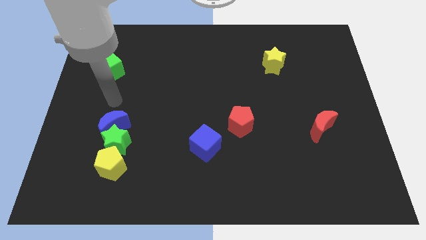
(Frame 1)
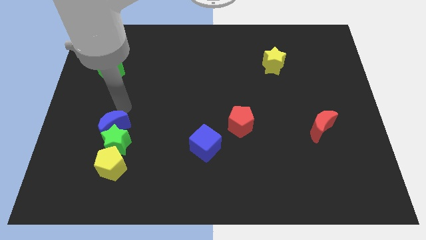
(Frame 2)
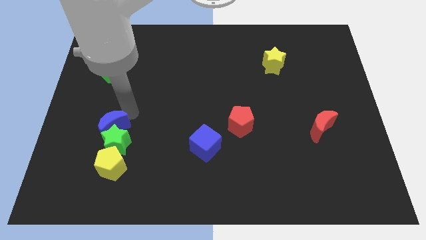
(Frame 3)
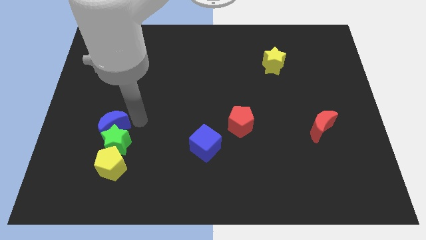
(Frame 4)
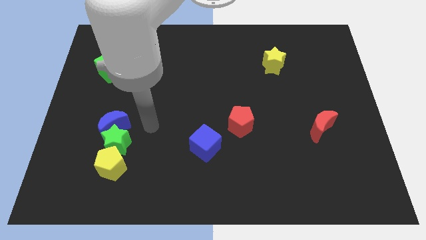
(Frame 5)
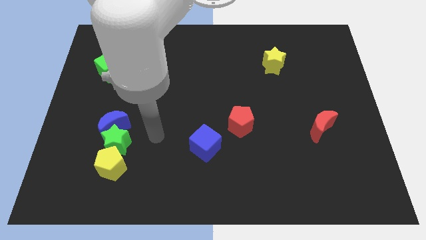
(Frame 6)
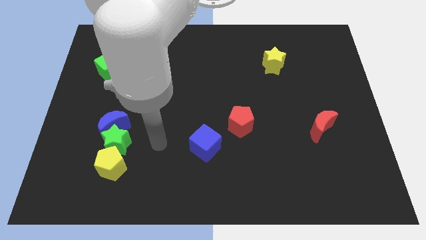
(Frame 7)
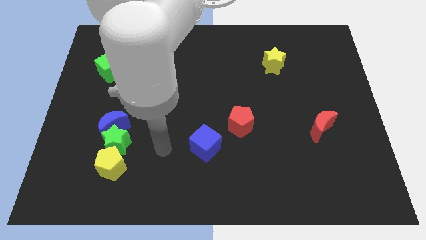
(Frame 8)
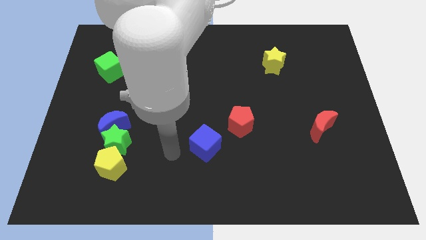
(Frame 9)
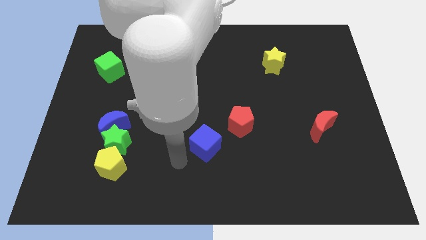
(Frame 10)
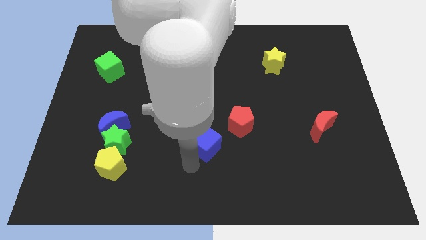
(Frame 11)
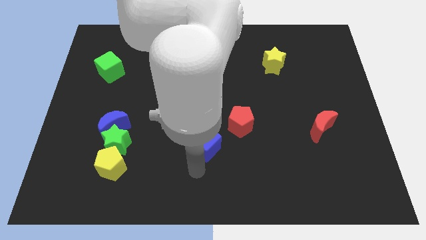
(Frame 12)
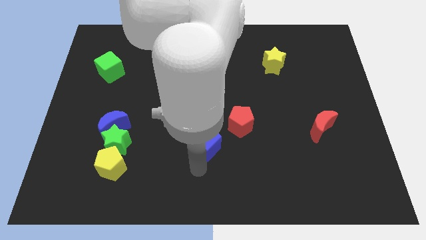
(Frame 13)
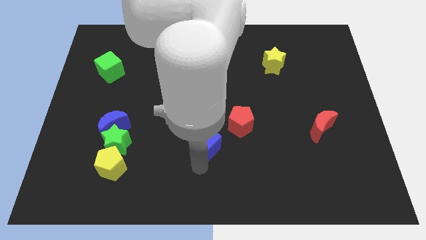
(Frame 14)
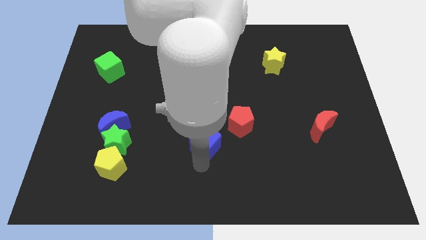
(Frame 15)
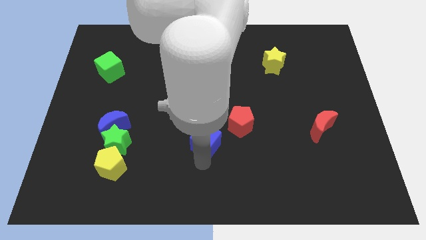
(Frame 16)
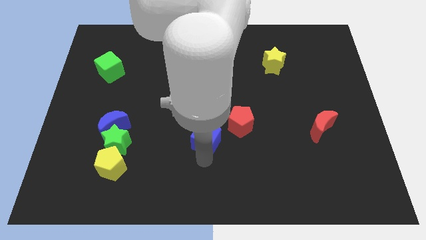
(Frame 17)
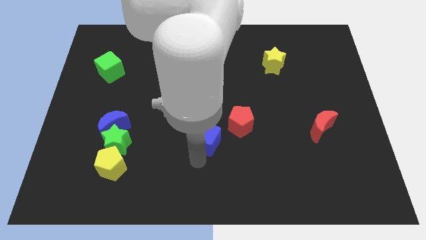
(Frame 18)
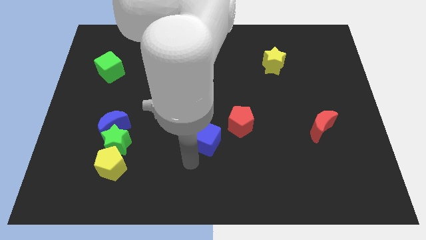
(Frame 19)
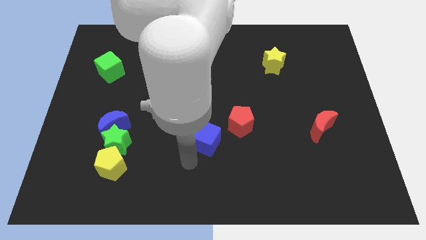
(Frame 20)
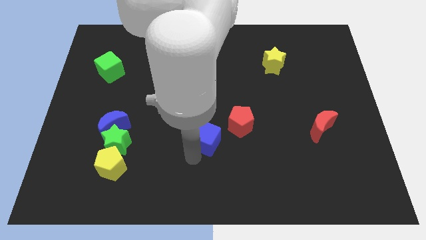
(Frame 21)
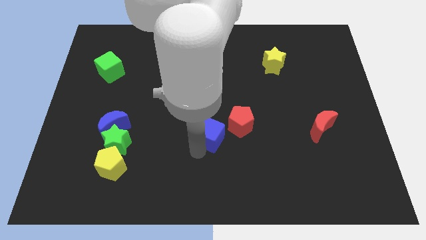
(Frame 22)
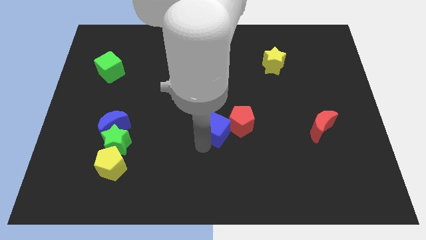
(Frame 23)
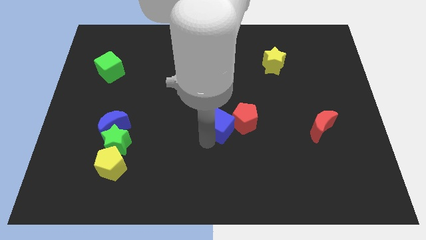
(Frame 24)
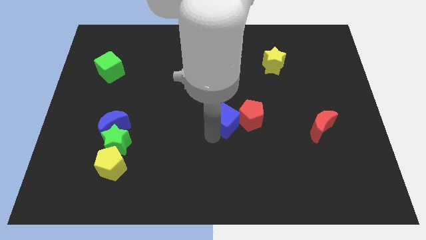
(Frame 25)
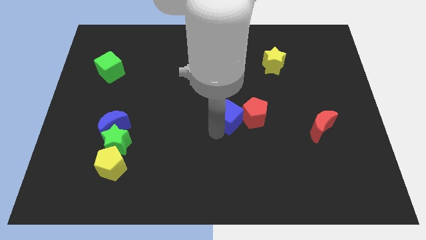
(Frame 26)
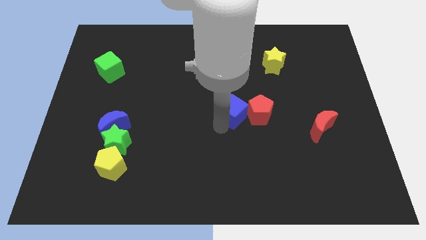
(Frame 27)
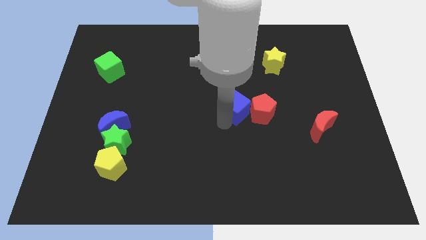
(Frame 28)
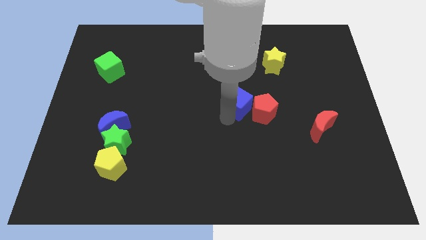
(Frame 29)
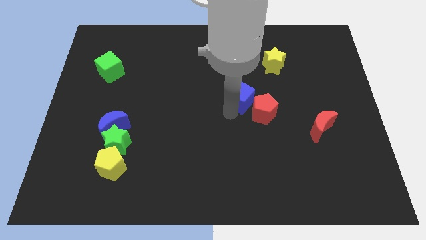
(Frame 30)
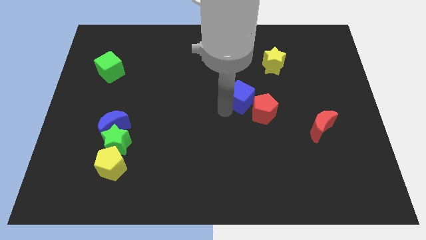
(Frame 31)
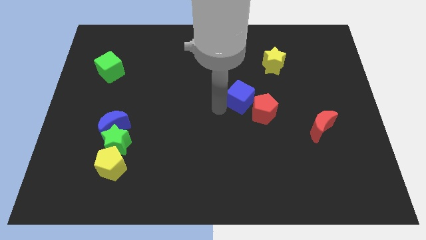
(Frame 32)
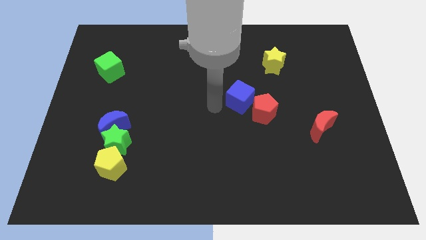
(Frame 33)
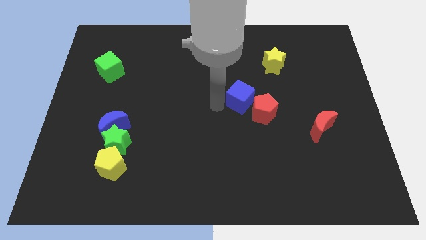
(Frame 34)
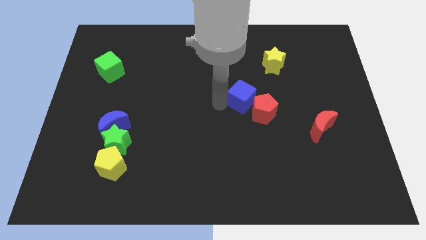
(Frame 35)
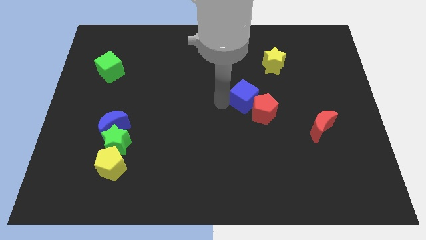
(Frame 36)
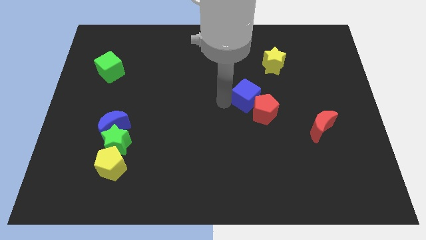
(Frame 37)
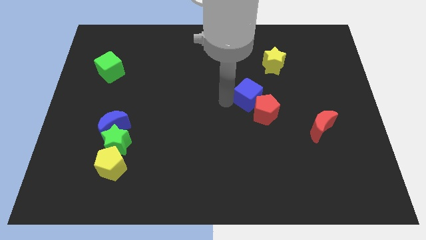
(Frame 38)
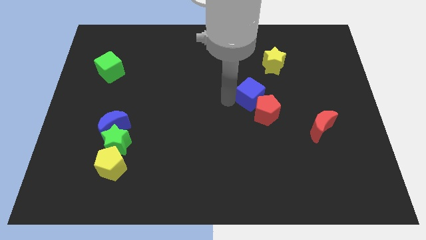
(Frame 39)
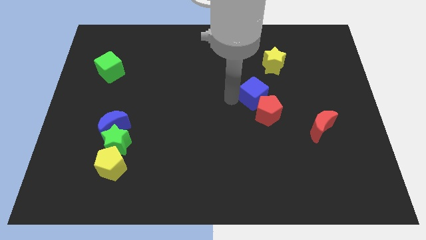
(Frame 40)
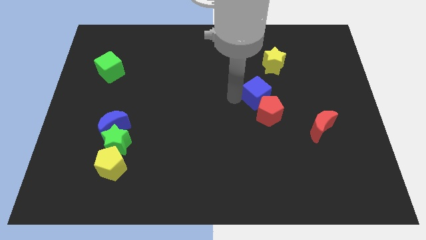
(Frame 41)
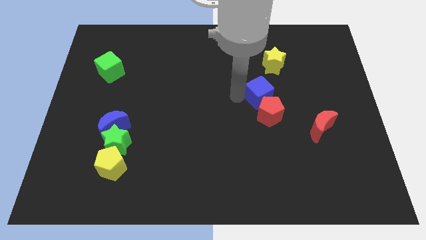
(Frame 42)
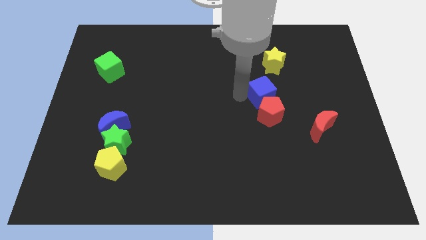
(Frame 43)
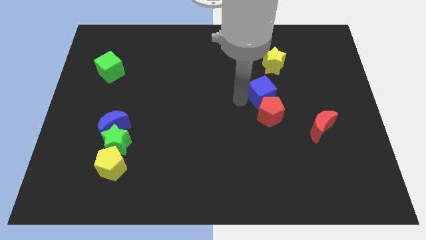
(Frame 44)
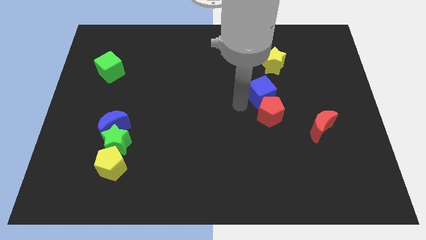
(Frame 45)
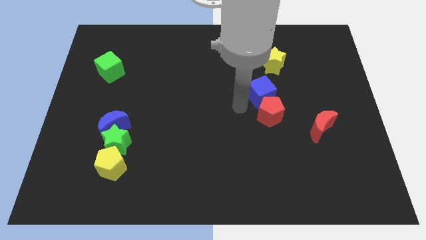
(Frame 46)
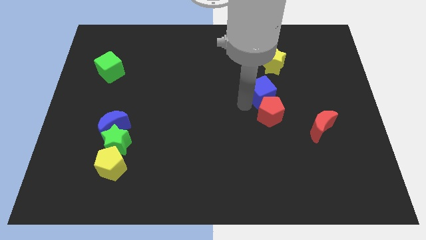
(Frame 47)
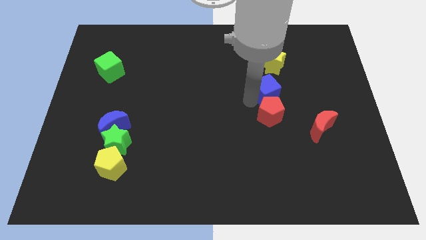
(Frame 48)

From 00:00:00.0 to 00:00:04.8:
move the blue cube upwards and then to the right

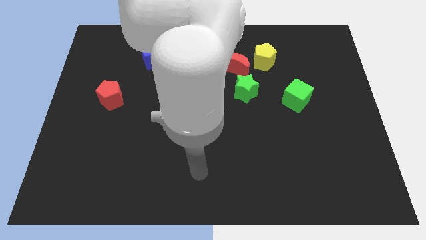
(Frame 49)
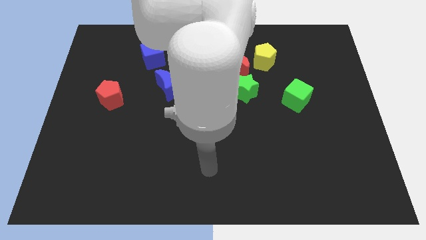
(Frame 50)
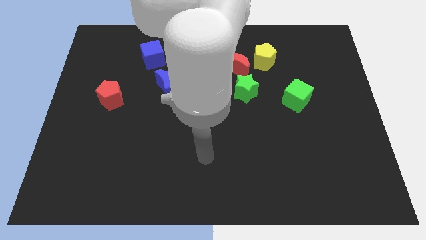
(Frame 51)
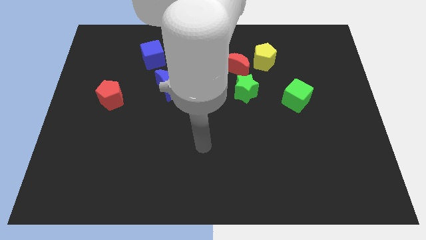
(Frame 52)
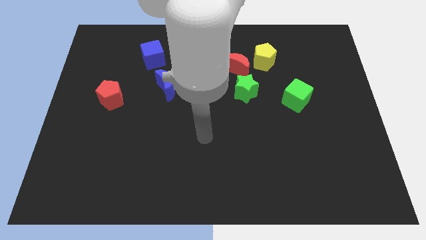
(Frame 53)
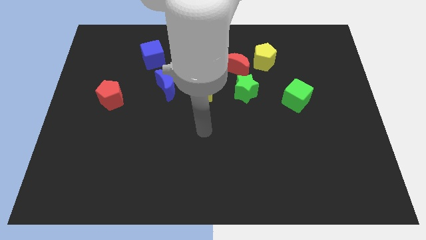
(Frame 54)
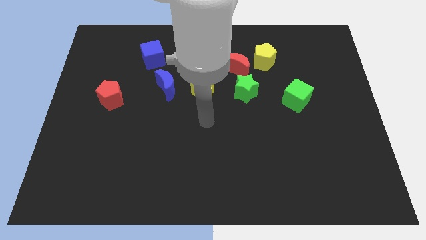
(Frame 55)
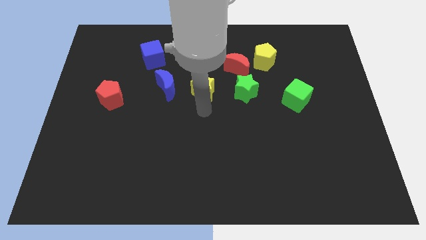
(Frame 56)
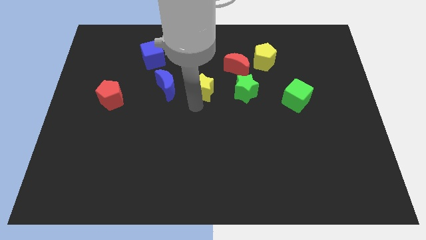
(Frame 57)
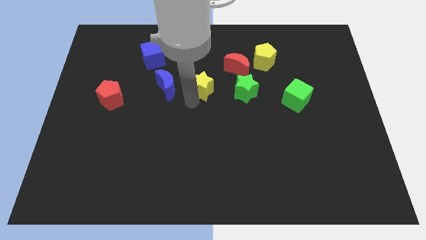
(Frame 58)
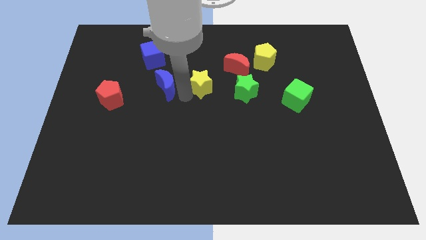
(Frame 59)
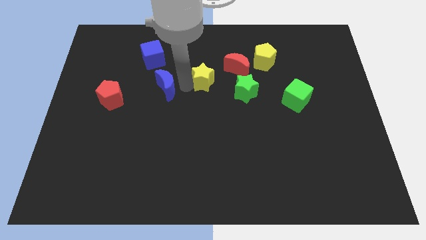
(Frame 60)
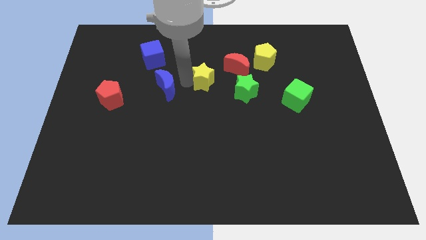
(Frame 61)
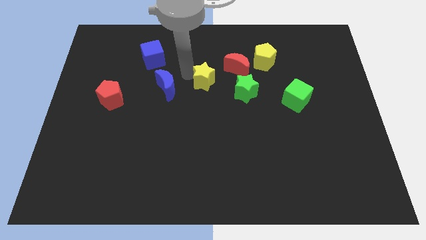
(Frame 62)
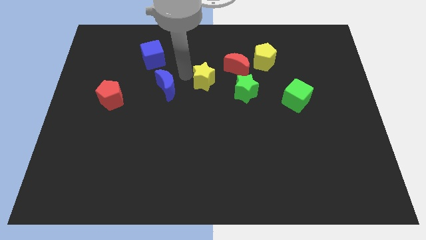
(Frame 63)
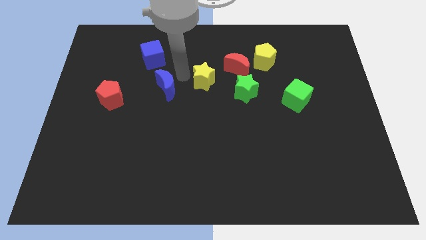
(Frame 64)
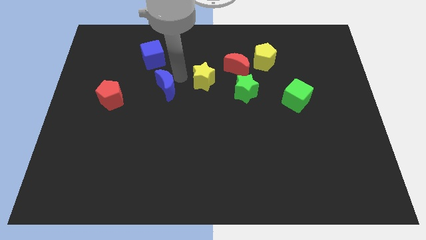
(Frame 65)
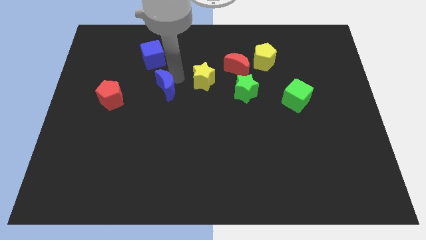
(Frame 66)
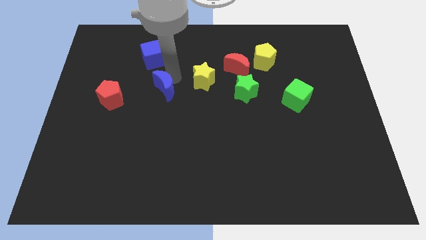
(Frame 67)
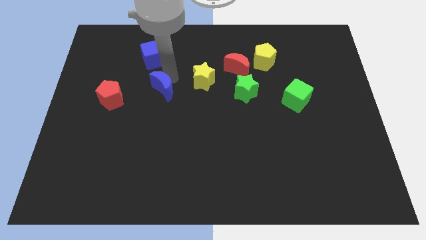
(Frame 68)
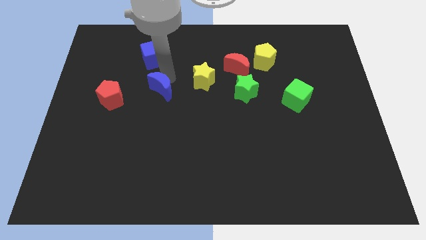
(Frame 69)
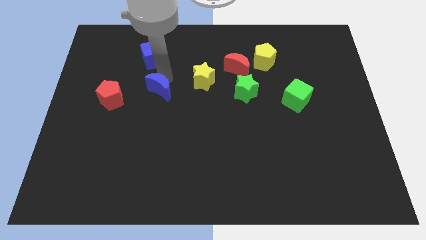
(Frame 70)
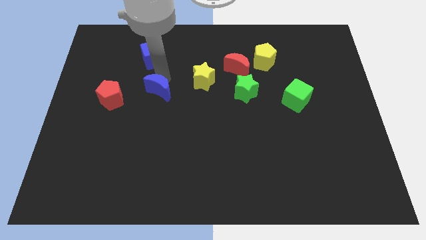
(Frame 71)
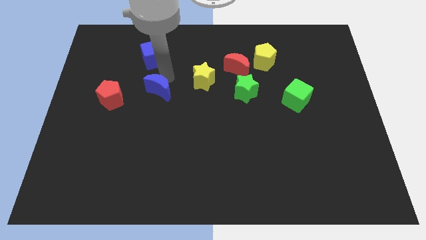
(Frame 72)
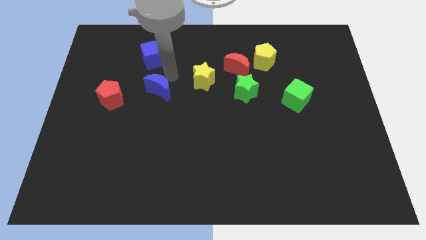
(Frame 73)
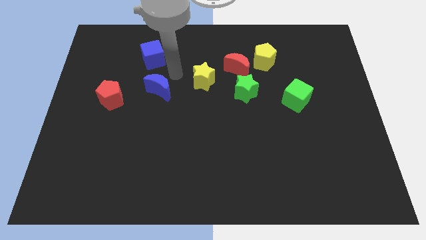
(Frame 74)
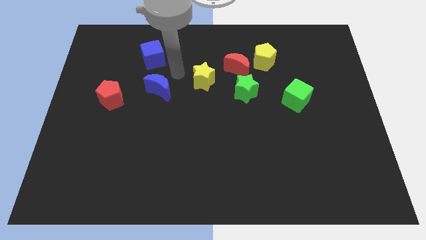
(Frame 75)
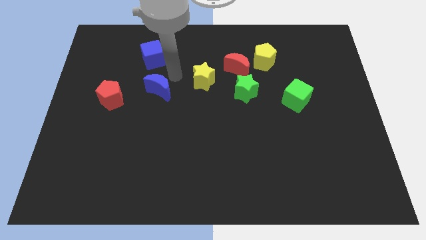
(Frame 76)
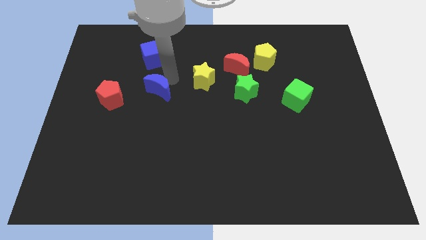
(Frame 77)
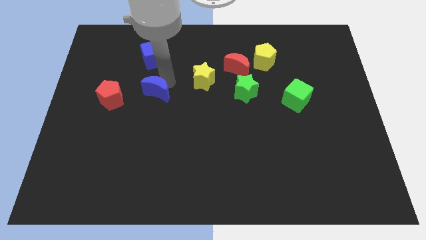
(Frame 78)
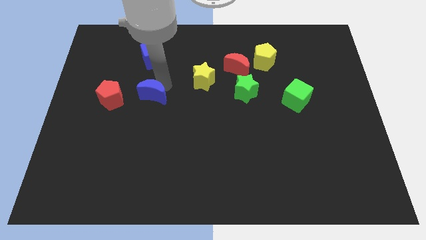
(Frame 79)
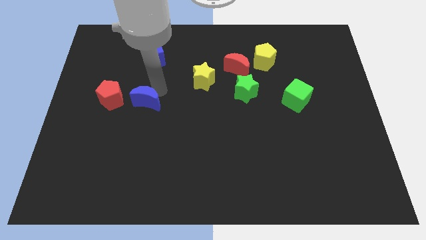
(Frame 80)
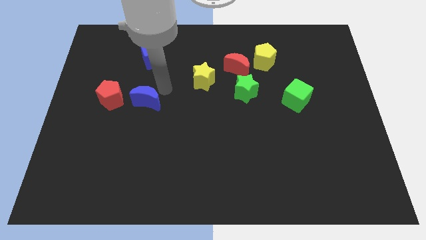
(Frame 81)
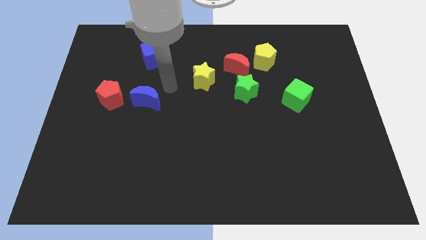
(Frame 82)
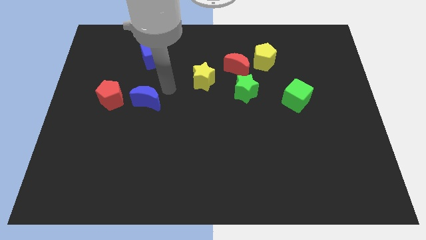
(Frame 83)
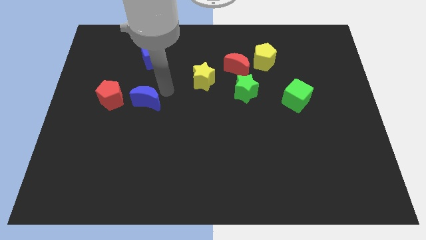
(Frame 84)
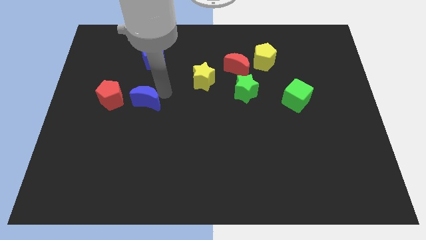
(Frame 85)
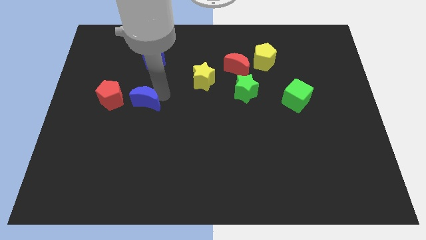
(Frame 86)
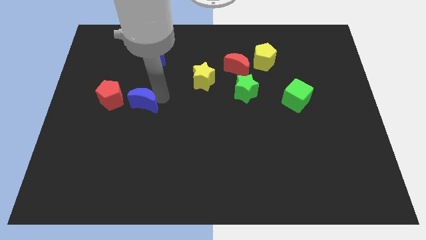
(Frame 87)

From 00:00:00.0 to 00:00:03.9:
slide the blue moon down and then to the left slightly
